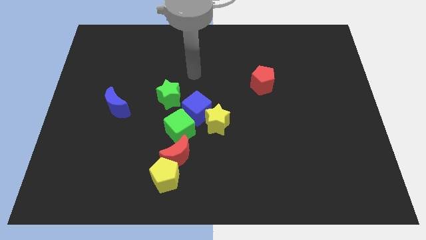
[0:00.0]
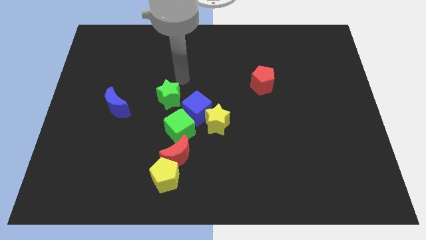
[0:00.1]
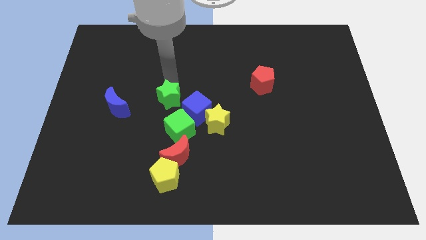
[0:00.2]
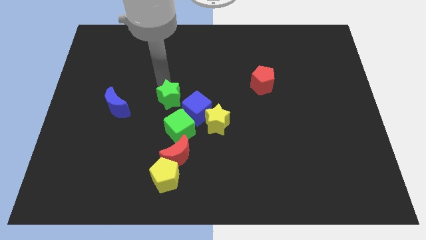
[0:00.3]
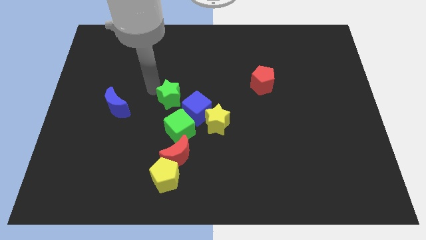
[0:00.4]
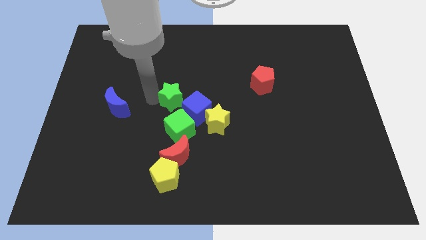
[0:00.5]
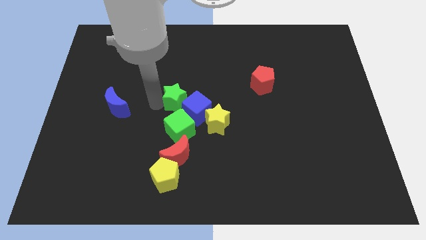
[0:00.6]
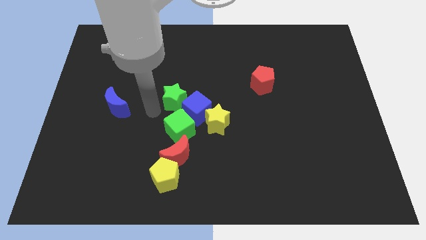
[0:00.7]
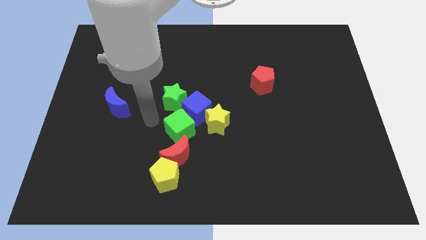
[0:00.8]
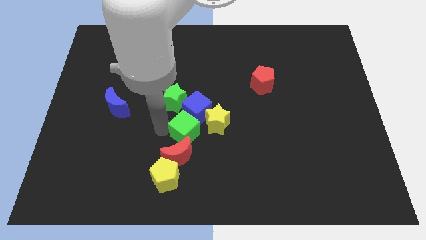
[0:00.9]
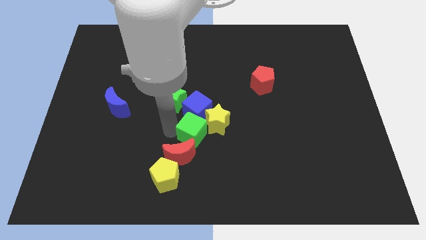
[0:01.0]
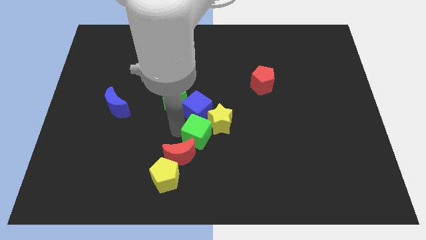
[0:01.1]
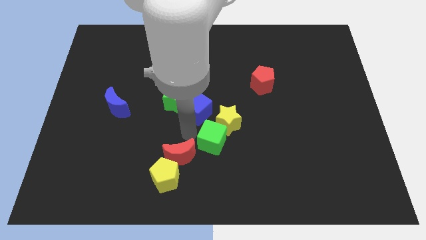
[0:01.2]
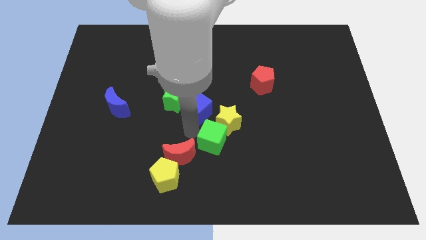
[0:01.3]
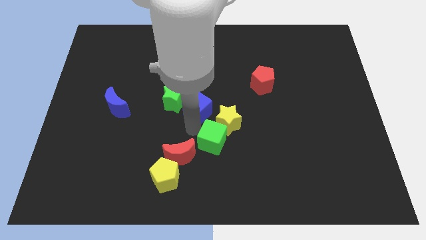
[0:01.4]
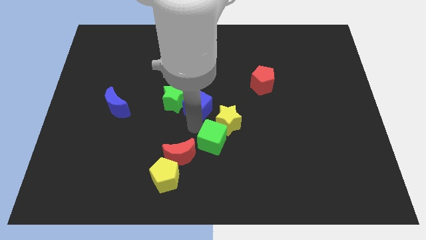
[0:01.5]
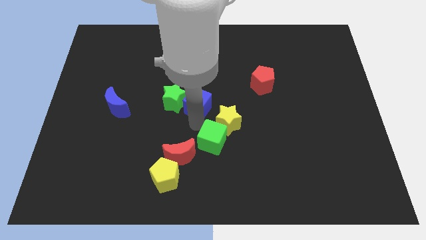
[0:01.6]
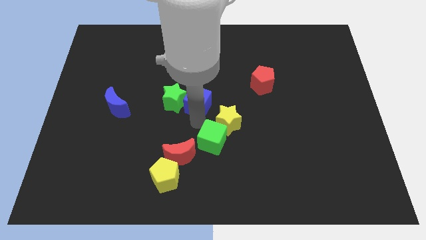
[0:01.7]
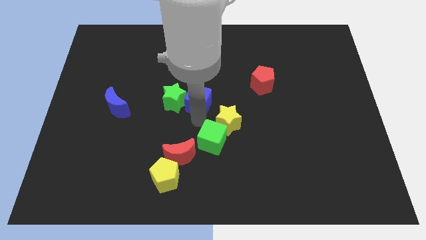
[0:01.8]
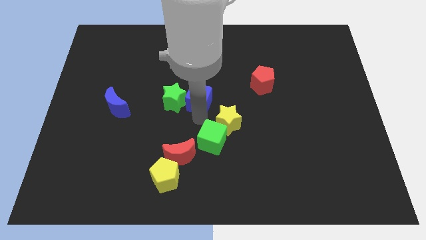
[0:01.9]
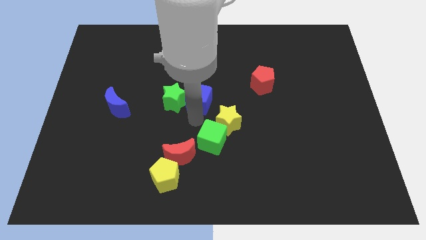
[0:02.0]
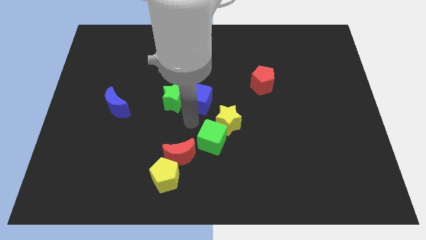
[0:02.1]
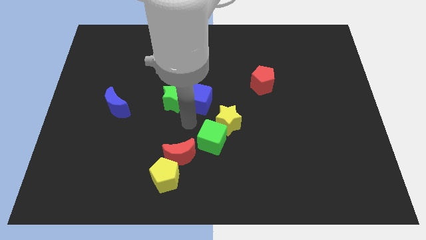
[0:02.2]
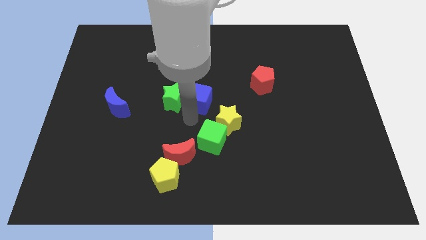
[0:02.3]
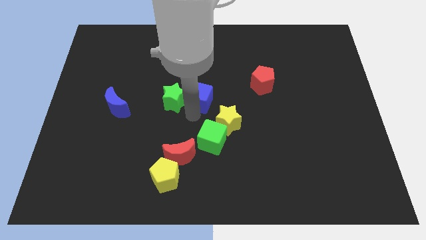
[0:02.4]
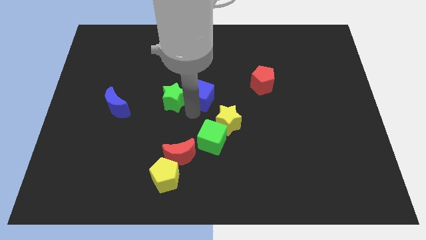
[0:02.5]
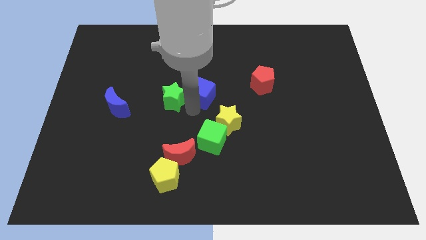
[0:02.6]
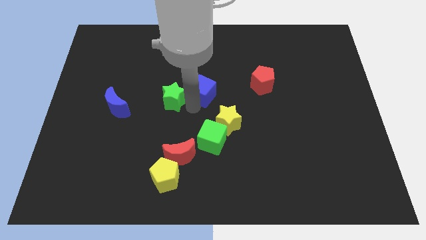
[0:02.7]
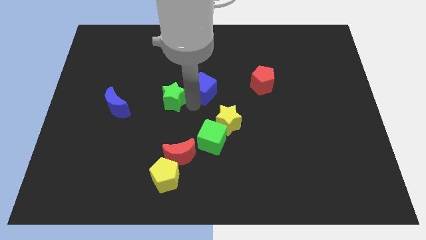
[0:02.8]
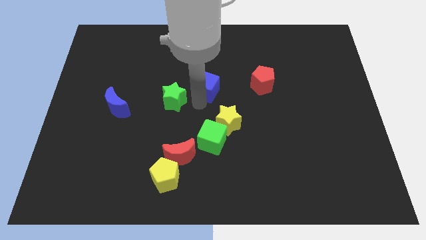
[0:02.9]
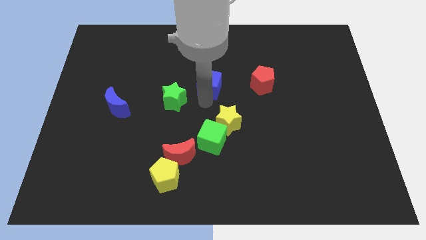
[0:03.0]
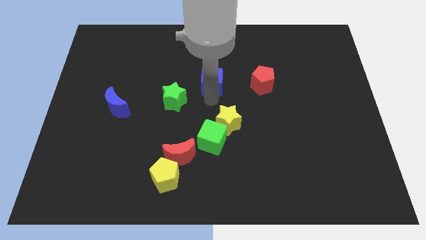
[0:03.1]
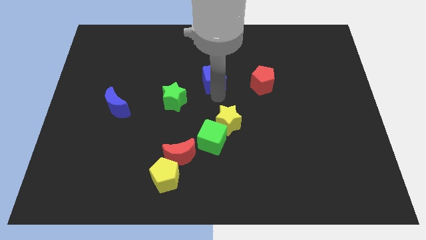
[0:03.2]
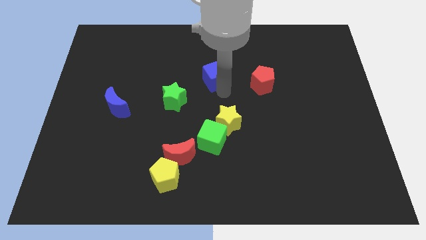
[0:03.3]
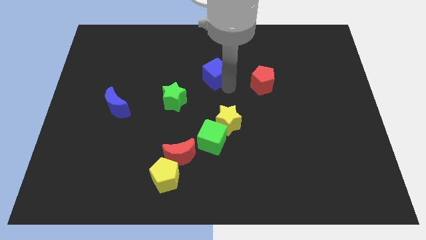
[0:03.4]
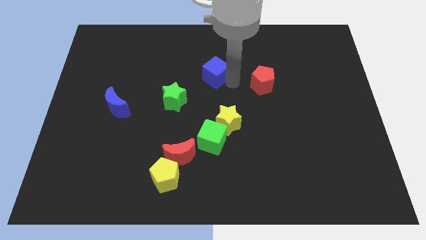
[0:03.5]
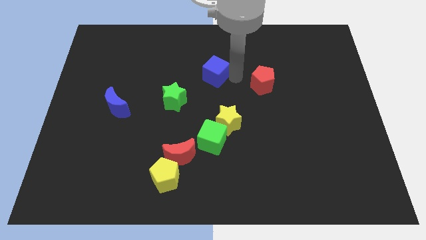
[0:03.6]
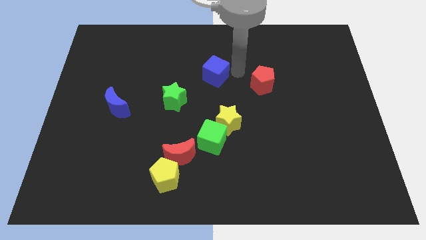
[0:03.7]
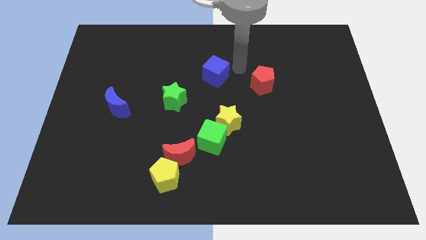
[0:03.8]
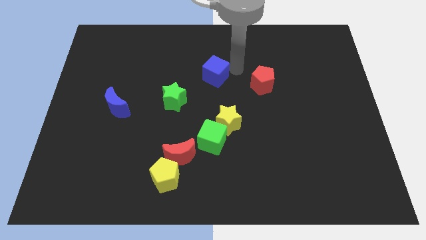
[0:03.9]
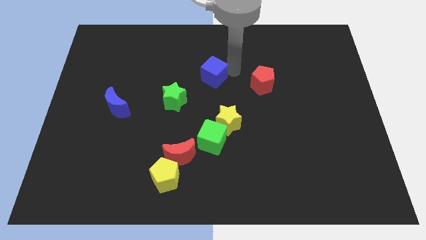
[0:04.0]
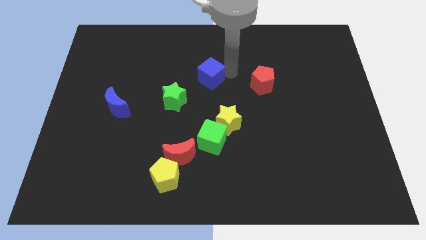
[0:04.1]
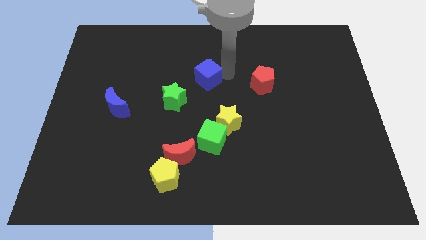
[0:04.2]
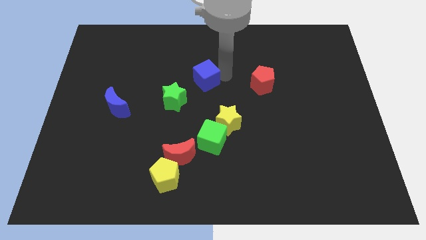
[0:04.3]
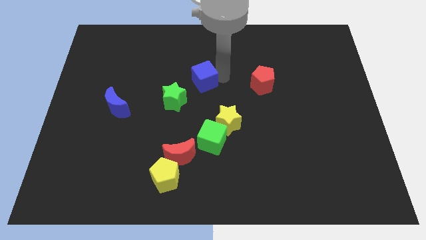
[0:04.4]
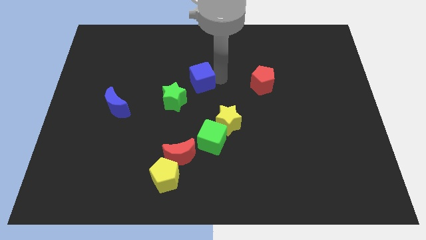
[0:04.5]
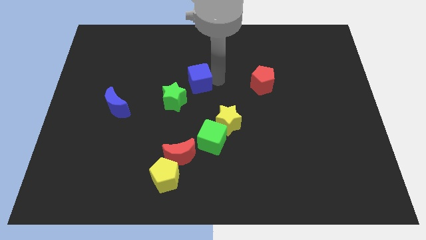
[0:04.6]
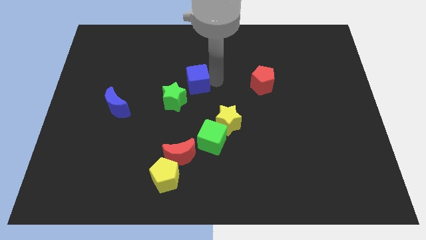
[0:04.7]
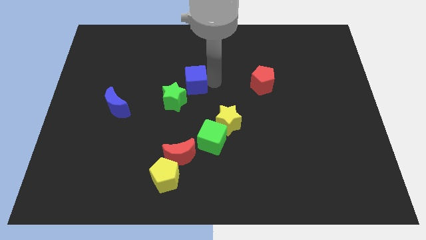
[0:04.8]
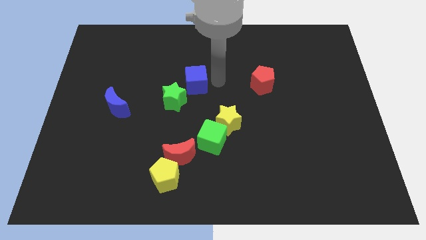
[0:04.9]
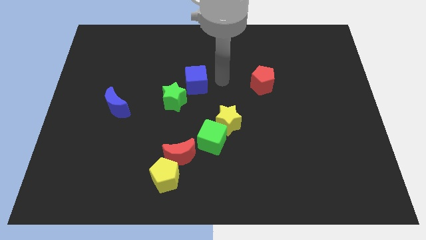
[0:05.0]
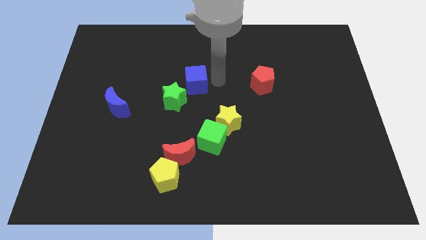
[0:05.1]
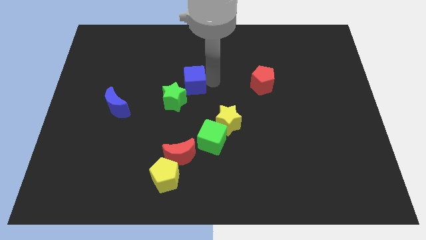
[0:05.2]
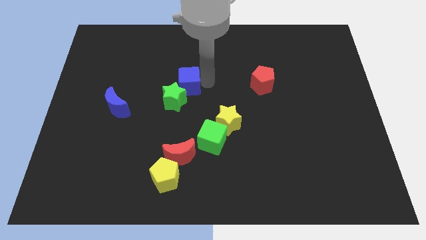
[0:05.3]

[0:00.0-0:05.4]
slightly slide the blue cube upwards and to the left

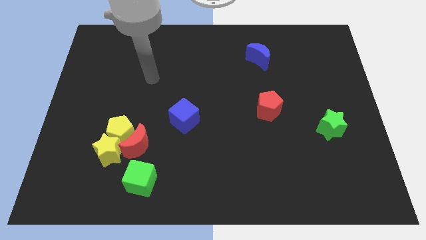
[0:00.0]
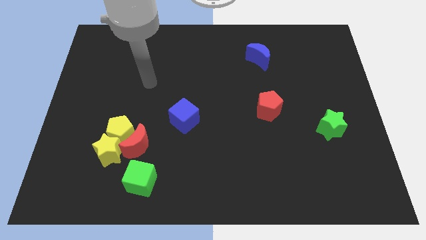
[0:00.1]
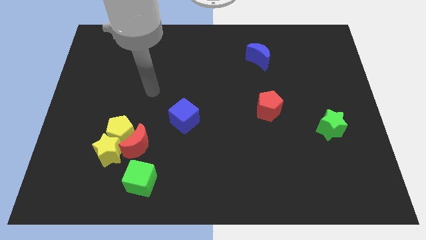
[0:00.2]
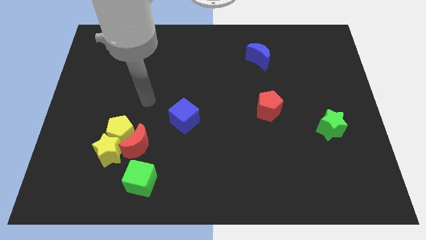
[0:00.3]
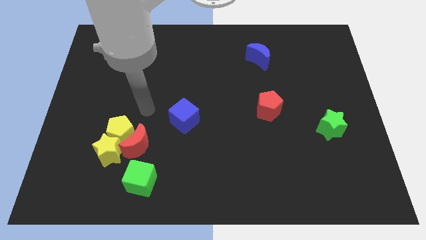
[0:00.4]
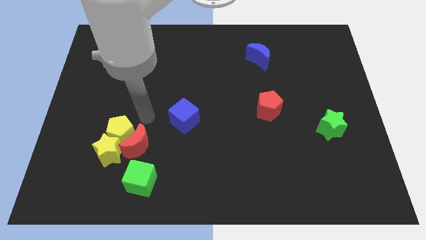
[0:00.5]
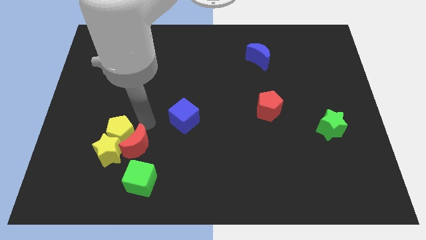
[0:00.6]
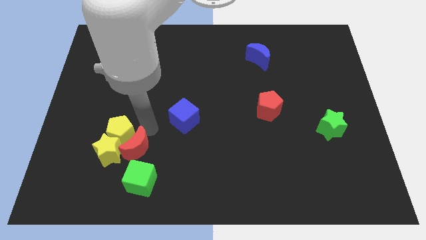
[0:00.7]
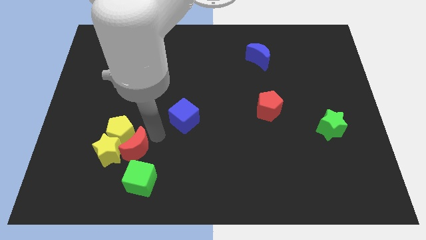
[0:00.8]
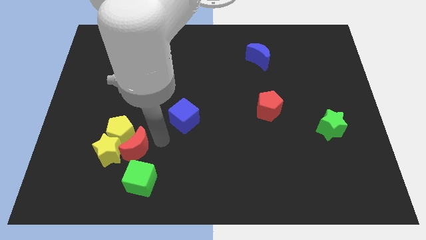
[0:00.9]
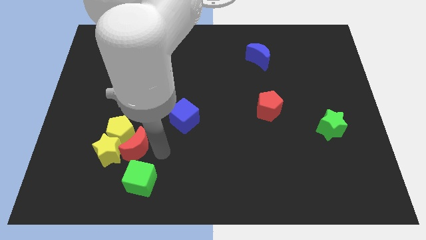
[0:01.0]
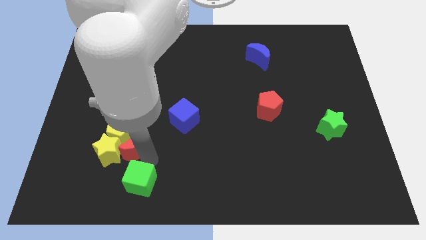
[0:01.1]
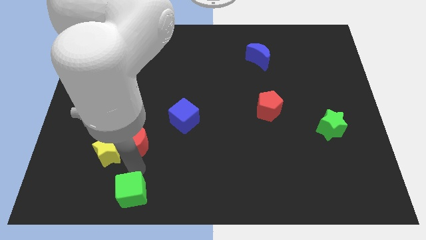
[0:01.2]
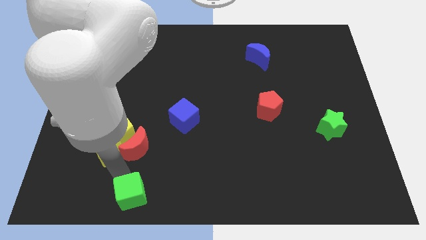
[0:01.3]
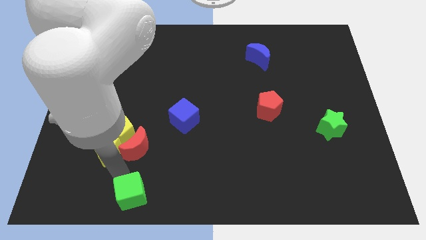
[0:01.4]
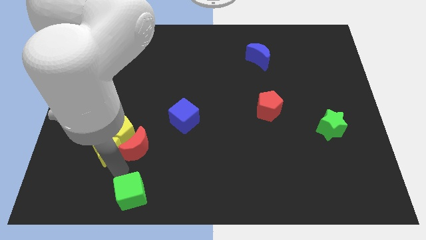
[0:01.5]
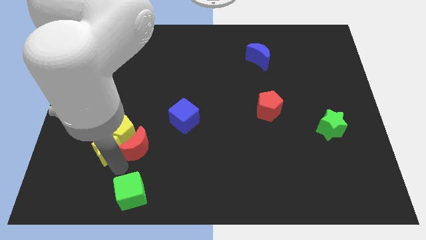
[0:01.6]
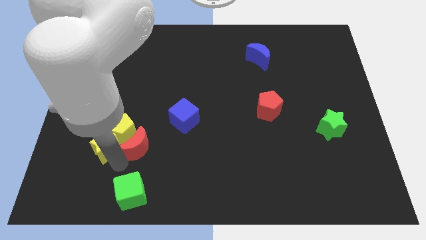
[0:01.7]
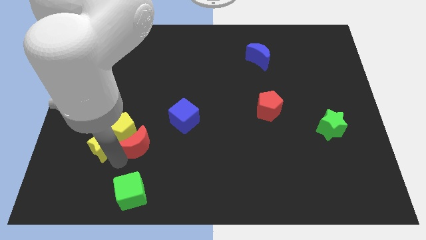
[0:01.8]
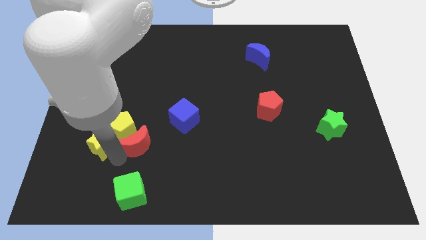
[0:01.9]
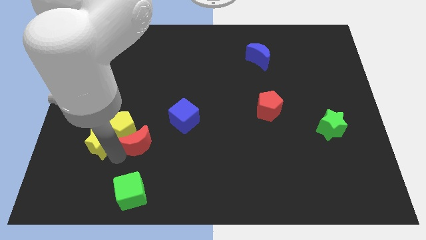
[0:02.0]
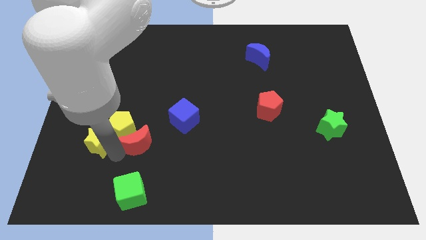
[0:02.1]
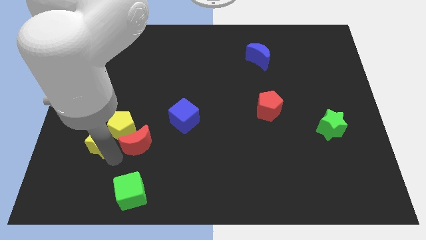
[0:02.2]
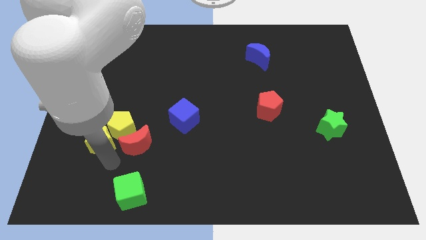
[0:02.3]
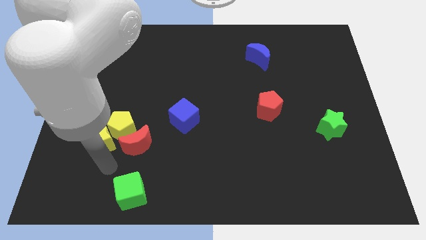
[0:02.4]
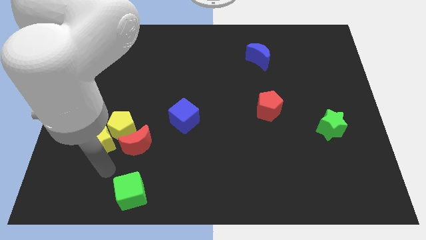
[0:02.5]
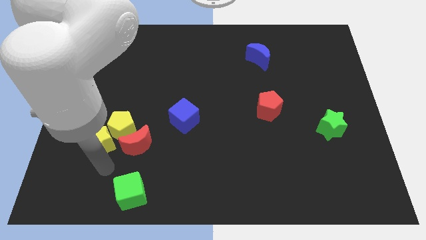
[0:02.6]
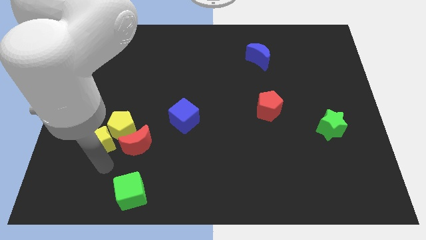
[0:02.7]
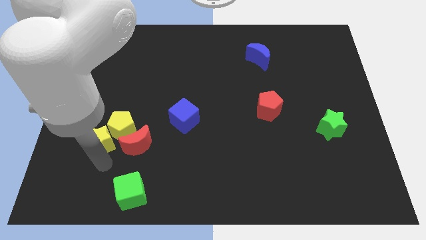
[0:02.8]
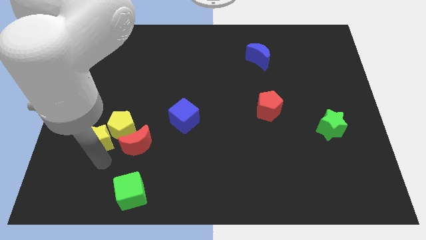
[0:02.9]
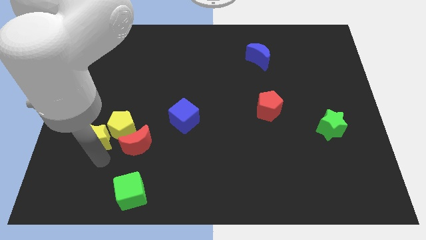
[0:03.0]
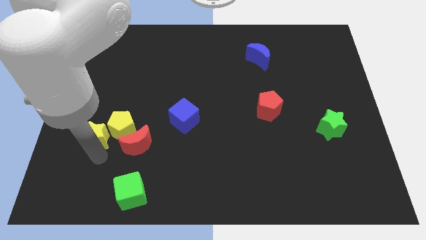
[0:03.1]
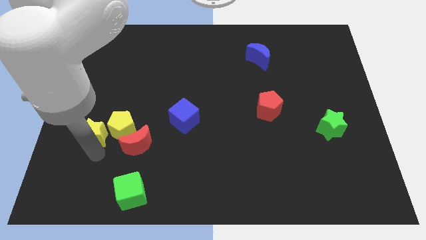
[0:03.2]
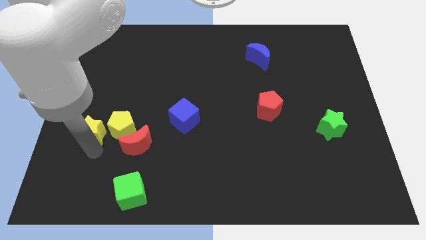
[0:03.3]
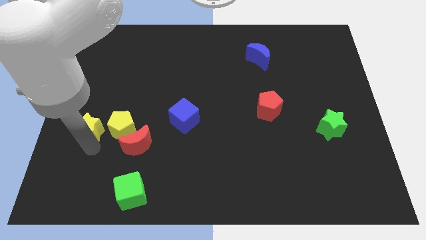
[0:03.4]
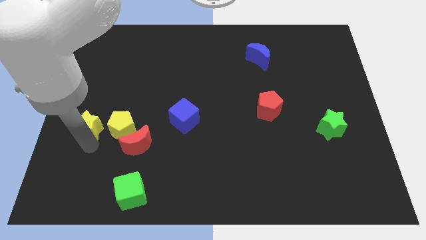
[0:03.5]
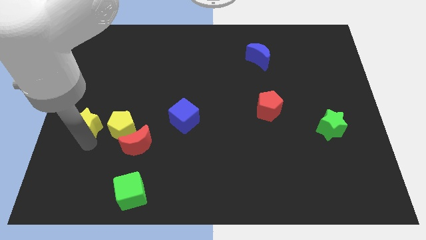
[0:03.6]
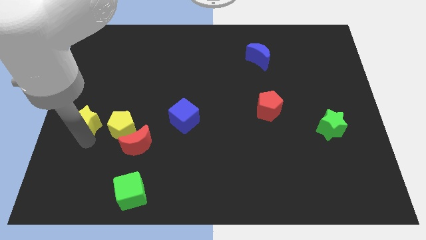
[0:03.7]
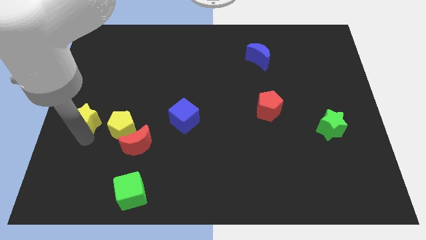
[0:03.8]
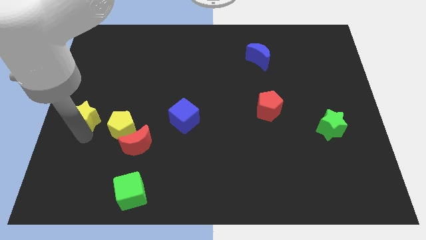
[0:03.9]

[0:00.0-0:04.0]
slide the yellow star slightly upwards
